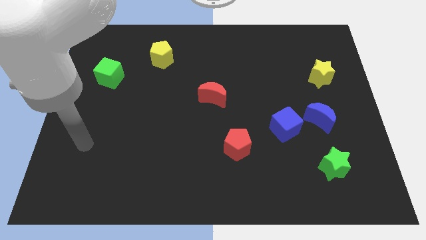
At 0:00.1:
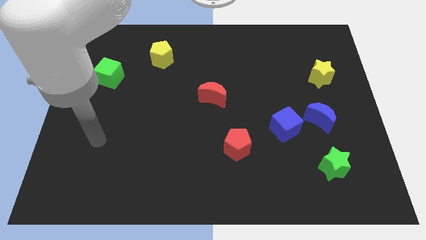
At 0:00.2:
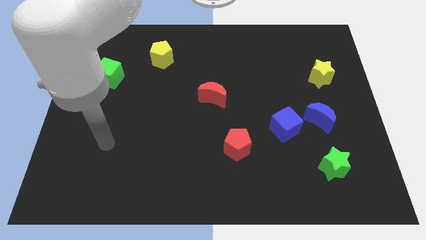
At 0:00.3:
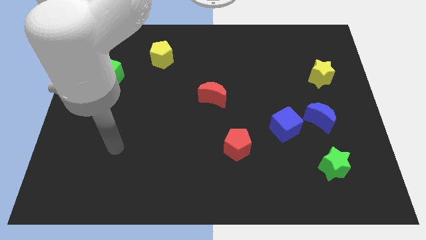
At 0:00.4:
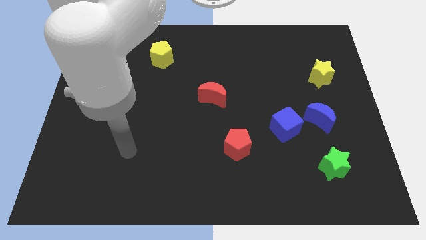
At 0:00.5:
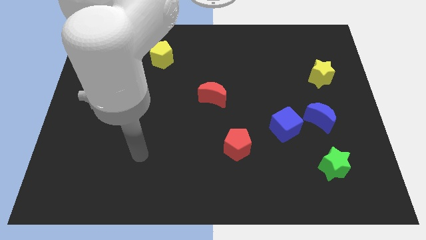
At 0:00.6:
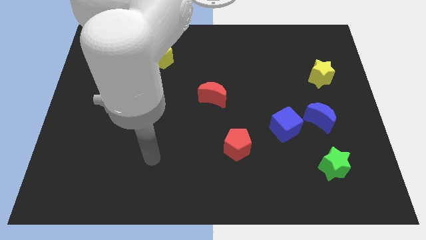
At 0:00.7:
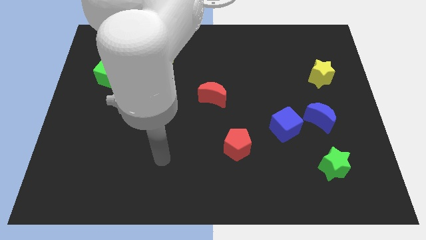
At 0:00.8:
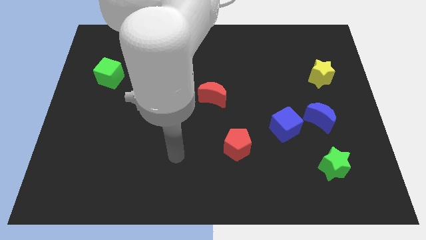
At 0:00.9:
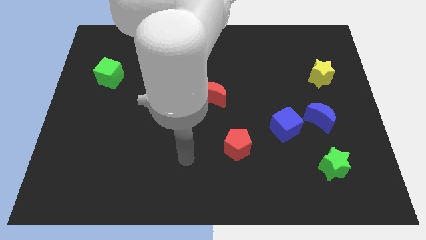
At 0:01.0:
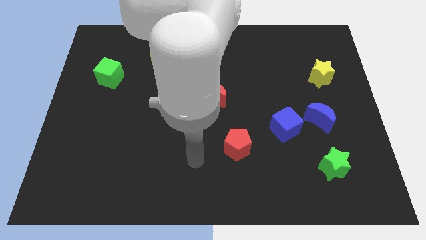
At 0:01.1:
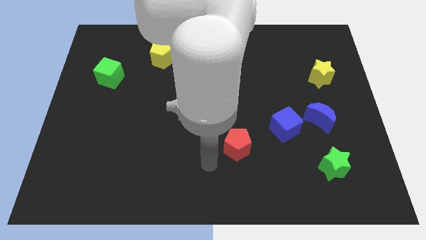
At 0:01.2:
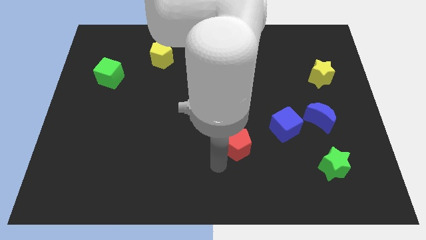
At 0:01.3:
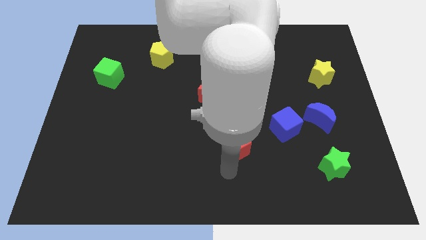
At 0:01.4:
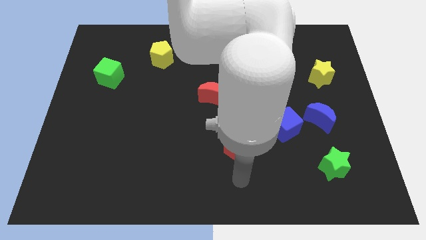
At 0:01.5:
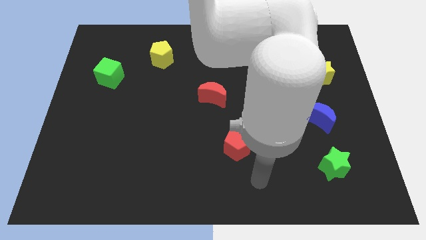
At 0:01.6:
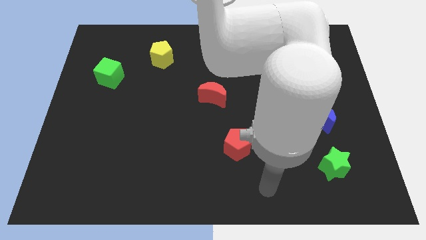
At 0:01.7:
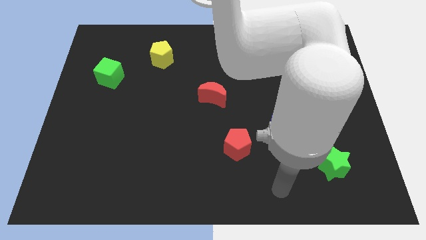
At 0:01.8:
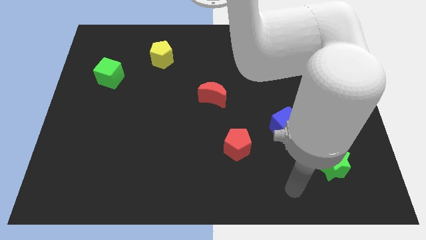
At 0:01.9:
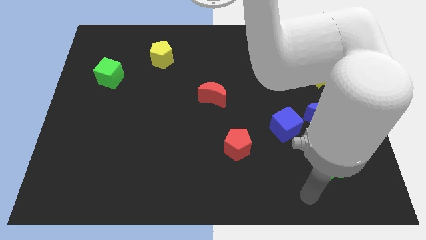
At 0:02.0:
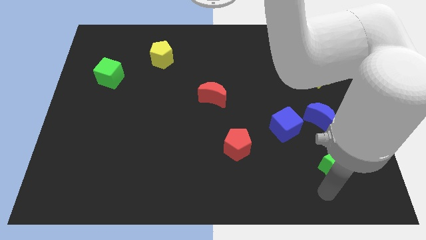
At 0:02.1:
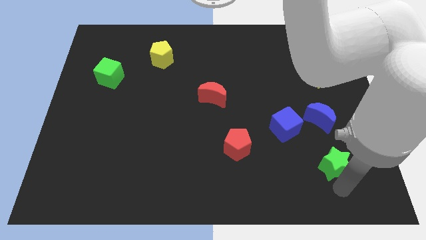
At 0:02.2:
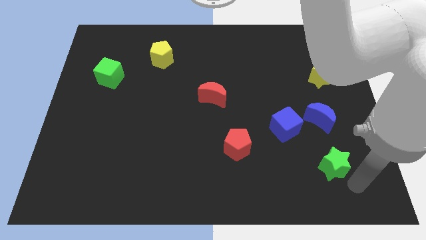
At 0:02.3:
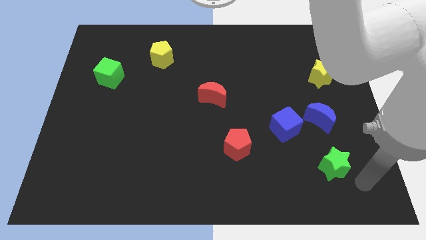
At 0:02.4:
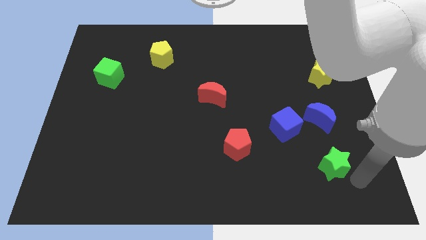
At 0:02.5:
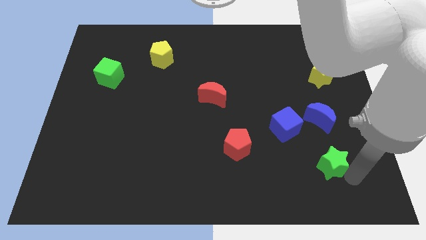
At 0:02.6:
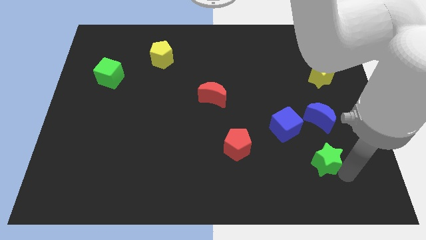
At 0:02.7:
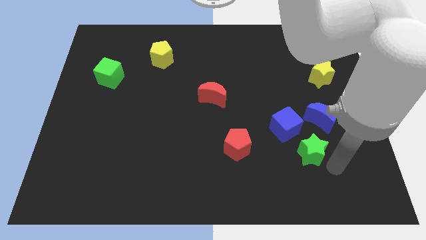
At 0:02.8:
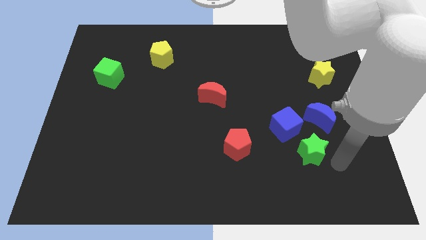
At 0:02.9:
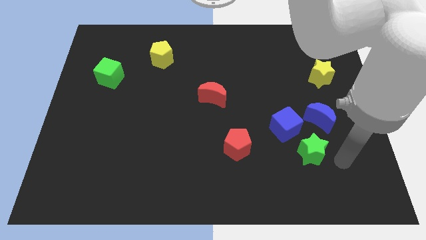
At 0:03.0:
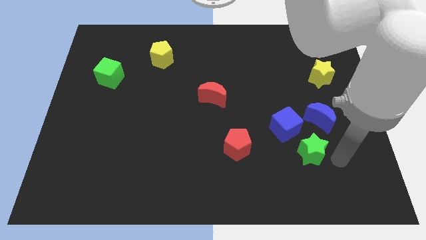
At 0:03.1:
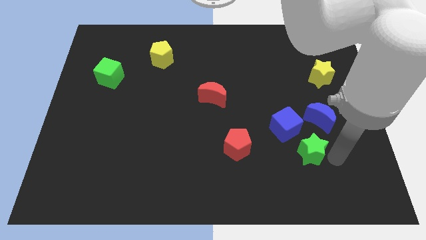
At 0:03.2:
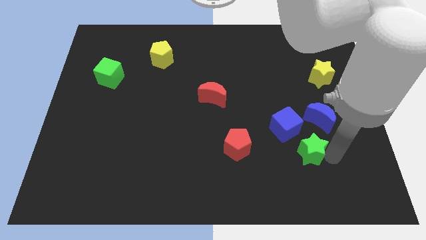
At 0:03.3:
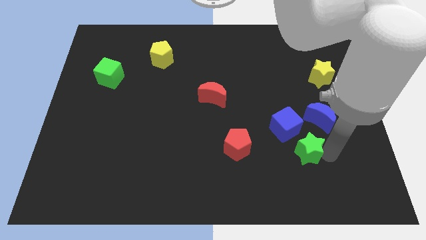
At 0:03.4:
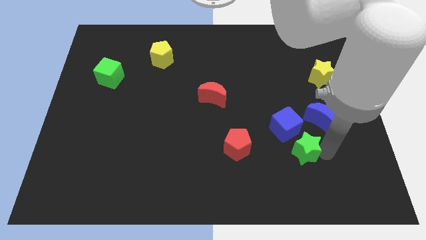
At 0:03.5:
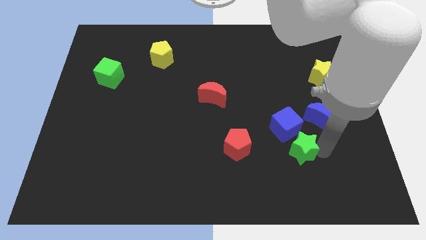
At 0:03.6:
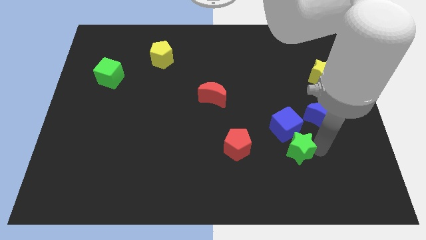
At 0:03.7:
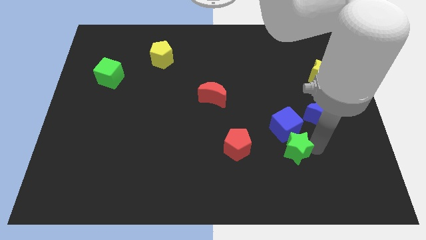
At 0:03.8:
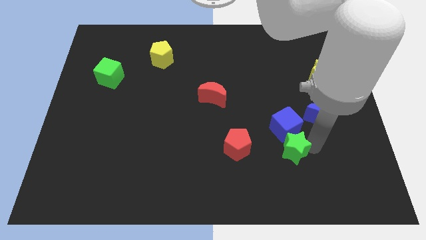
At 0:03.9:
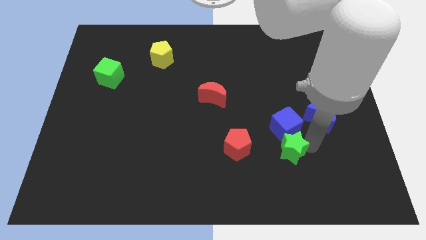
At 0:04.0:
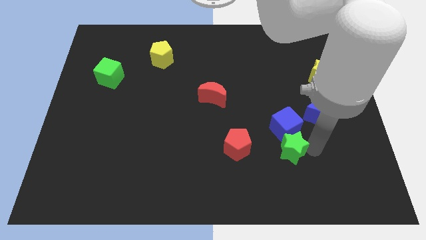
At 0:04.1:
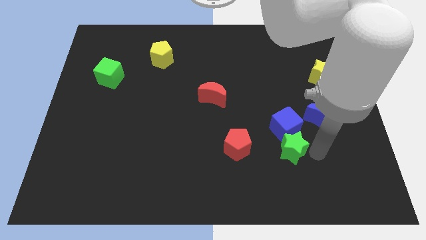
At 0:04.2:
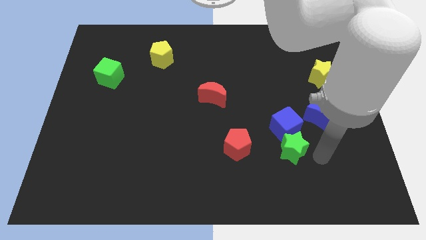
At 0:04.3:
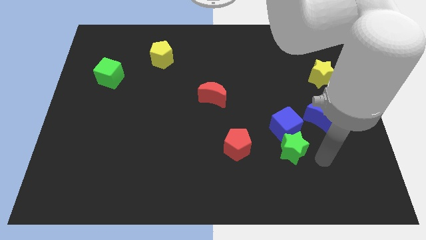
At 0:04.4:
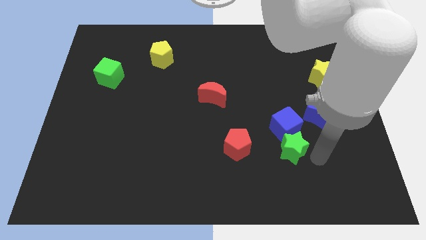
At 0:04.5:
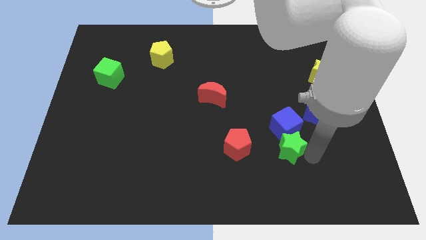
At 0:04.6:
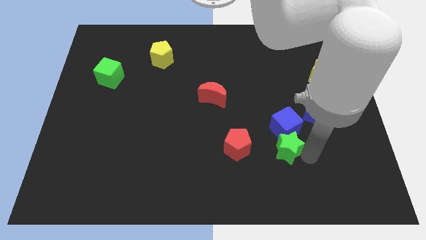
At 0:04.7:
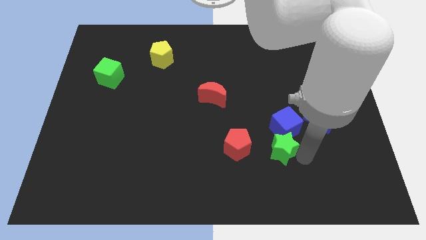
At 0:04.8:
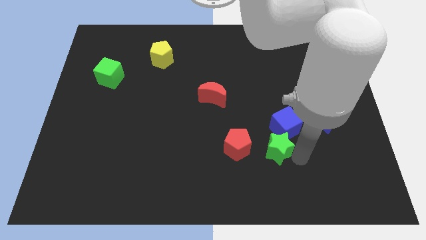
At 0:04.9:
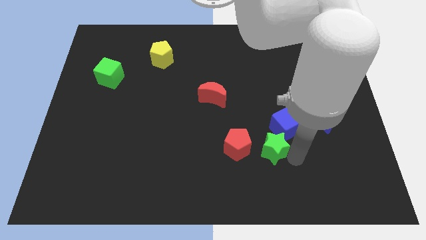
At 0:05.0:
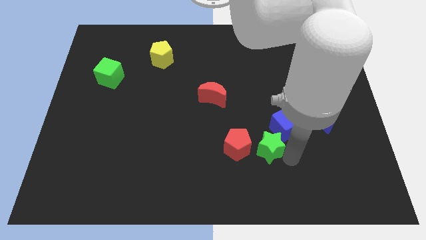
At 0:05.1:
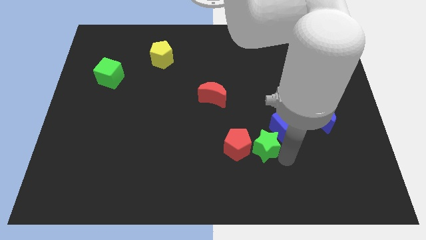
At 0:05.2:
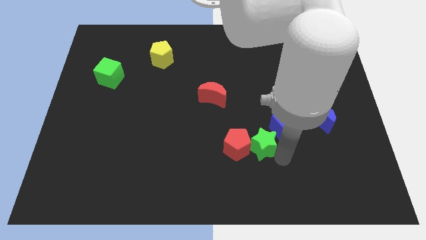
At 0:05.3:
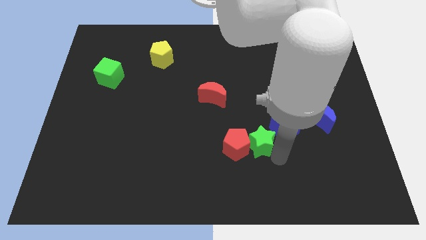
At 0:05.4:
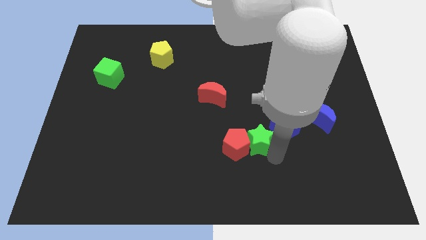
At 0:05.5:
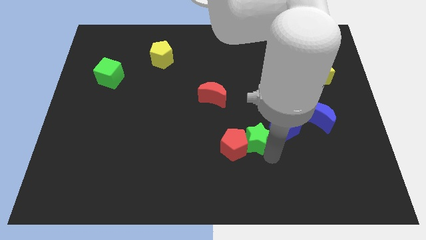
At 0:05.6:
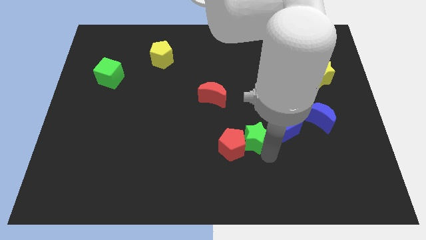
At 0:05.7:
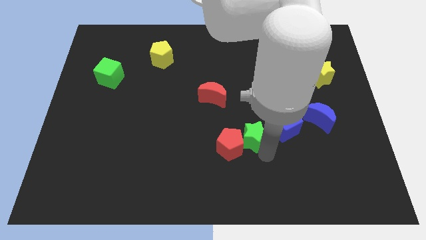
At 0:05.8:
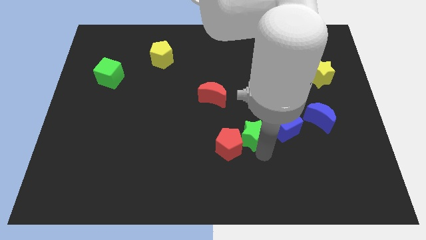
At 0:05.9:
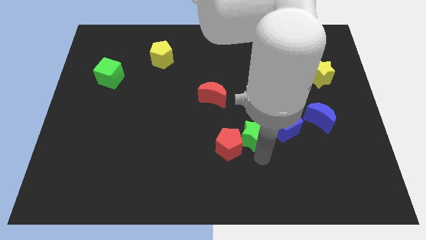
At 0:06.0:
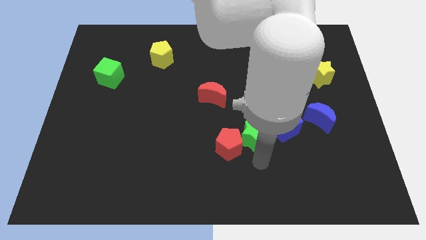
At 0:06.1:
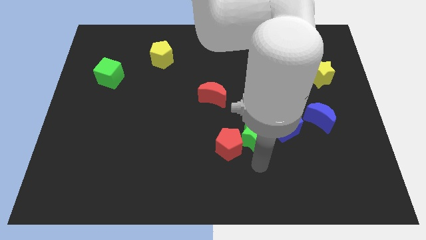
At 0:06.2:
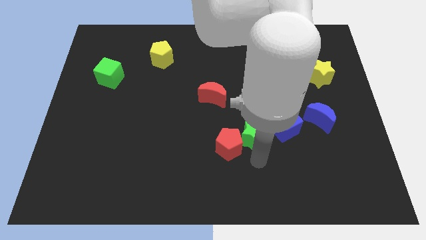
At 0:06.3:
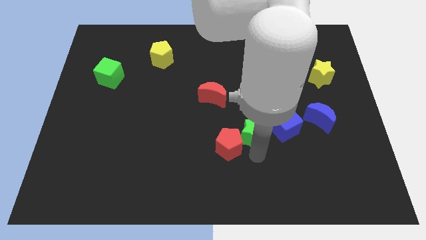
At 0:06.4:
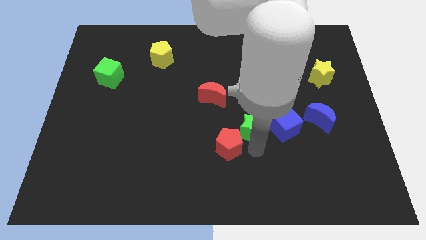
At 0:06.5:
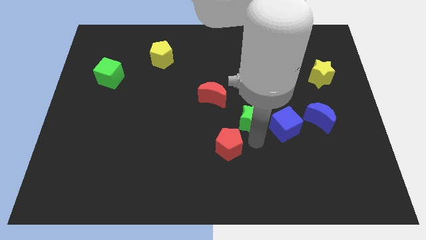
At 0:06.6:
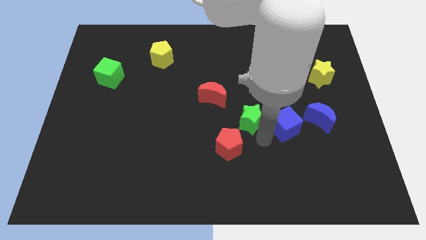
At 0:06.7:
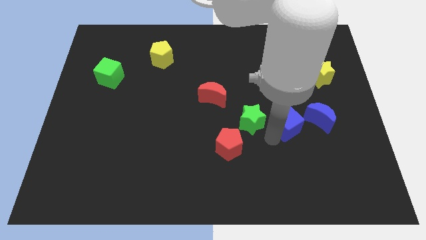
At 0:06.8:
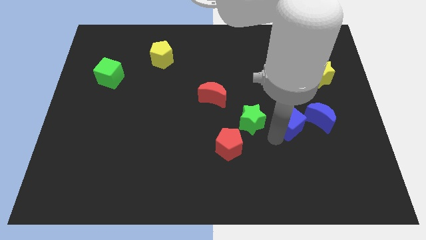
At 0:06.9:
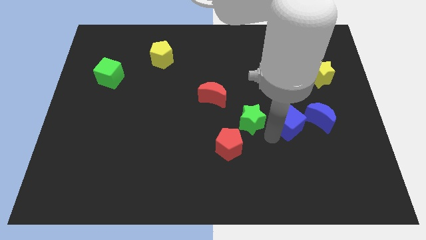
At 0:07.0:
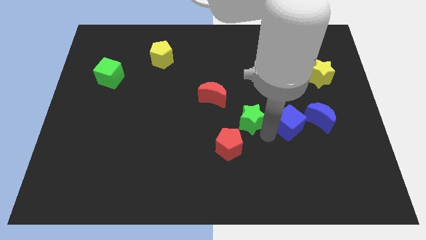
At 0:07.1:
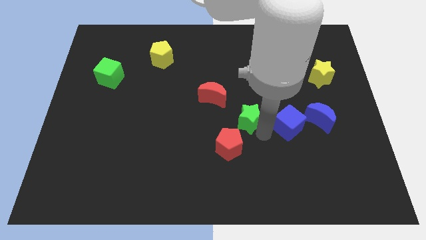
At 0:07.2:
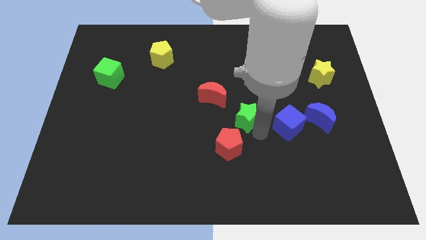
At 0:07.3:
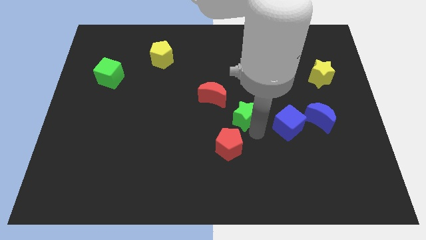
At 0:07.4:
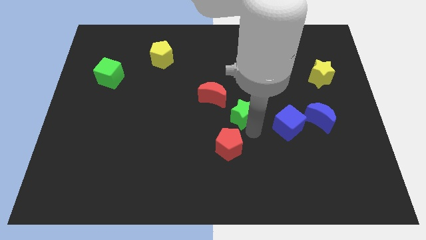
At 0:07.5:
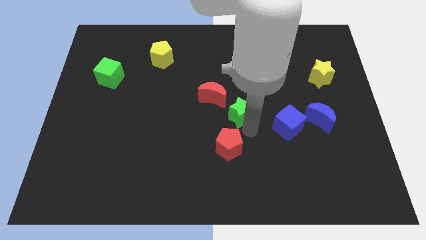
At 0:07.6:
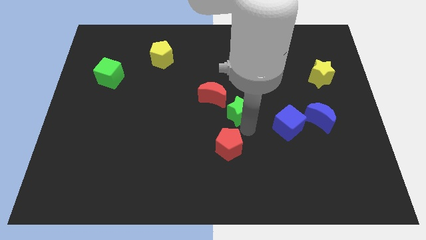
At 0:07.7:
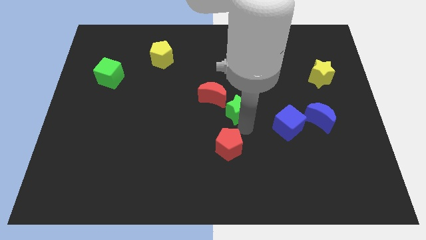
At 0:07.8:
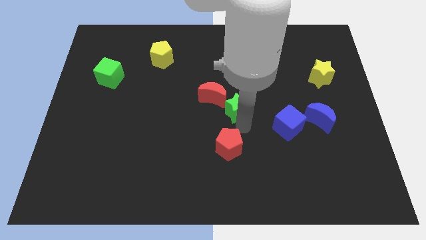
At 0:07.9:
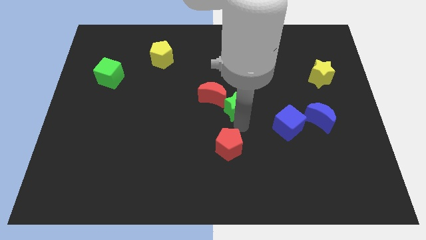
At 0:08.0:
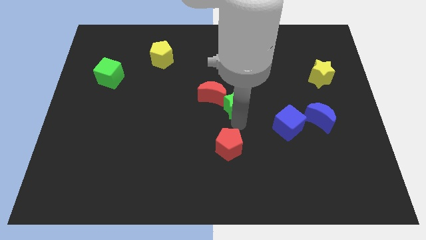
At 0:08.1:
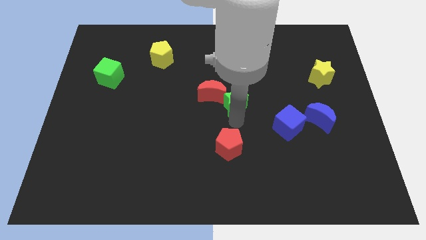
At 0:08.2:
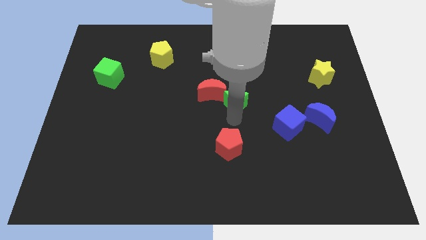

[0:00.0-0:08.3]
put the green star to the red moon
